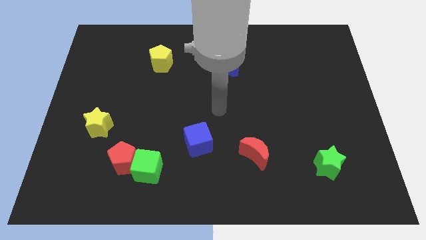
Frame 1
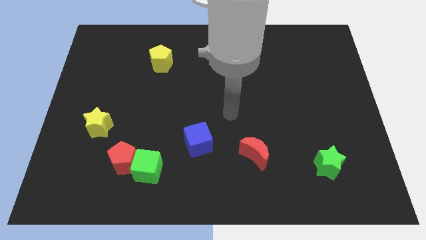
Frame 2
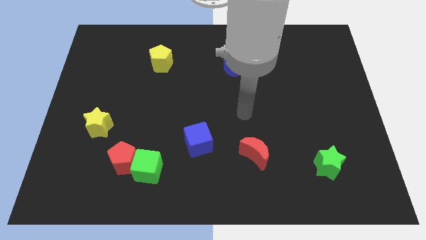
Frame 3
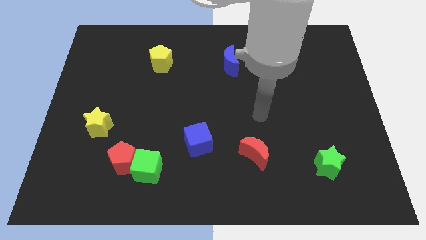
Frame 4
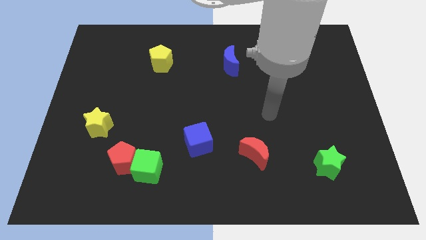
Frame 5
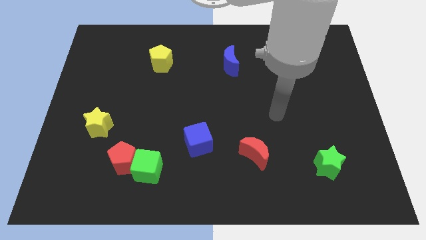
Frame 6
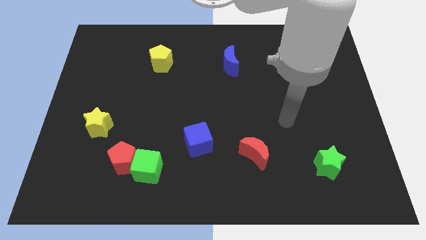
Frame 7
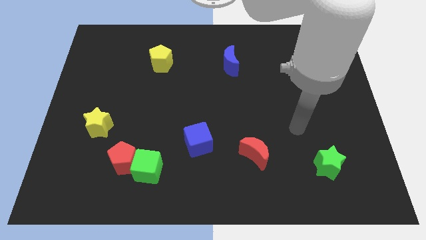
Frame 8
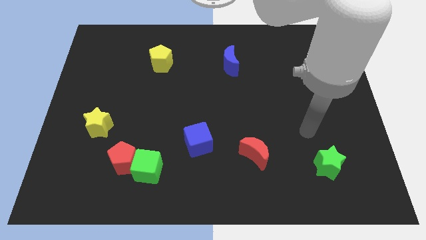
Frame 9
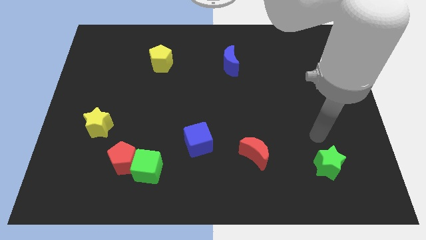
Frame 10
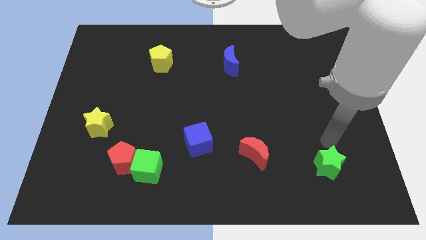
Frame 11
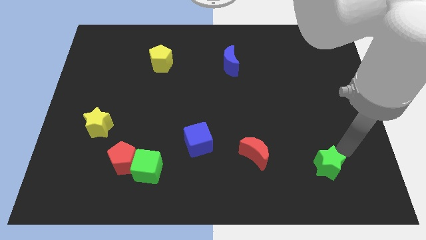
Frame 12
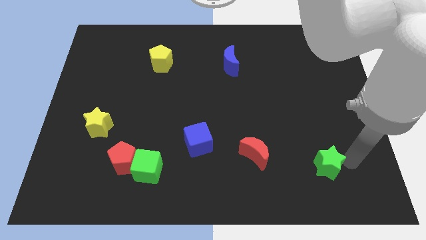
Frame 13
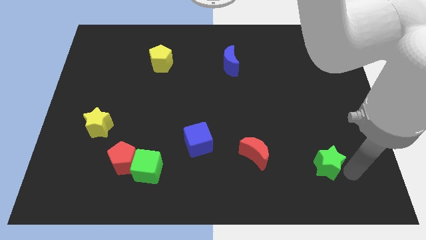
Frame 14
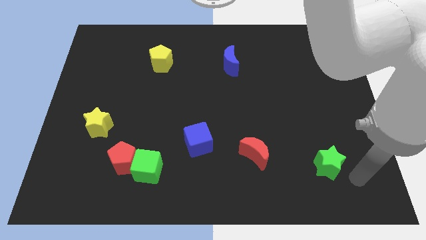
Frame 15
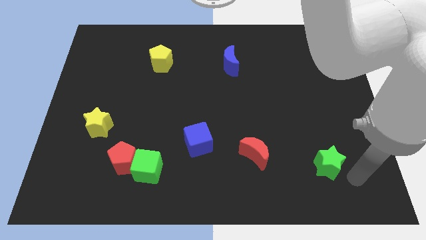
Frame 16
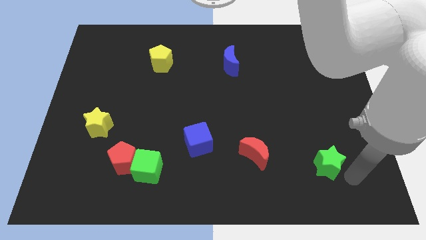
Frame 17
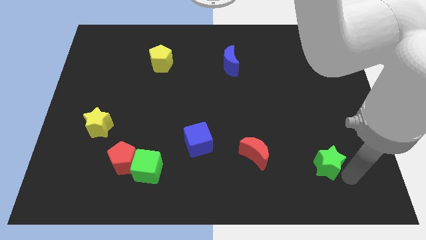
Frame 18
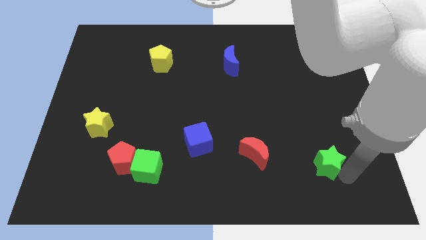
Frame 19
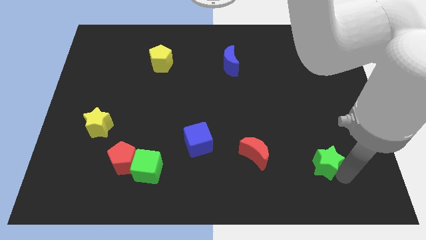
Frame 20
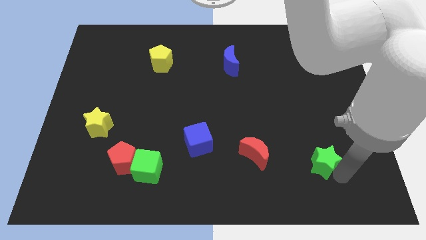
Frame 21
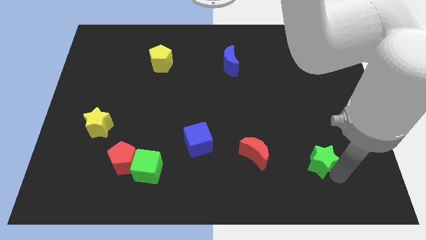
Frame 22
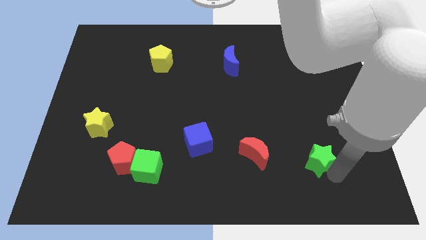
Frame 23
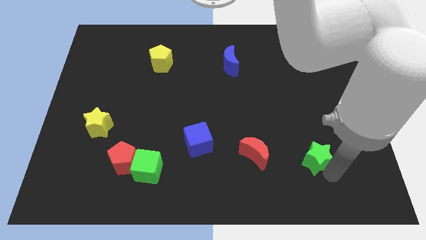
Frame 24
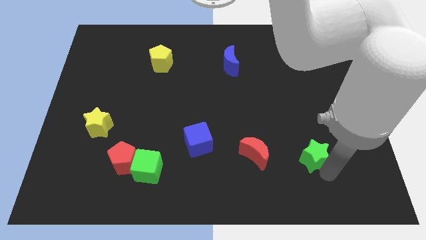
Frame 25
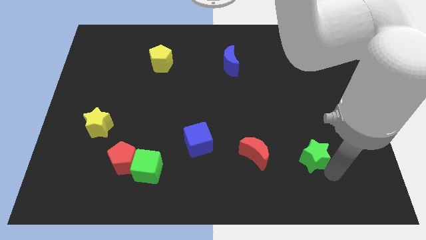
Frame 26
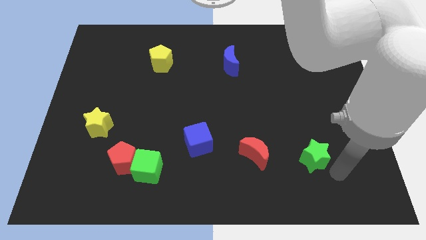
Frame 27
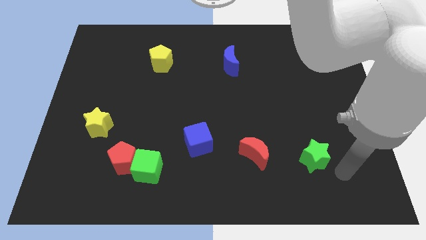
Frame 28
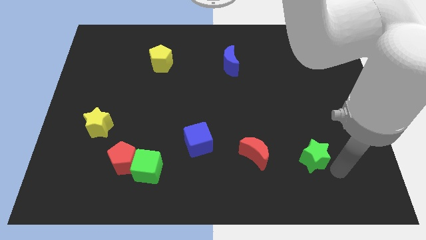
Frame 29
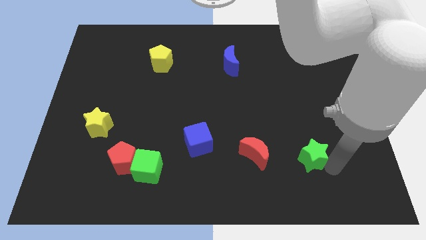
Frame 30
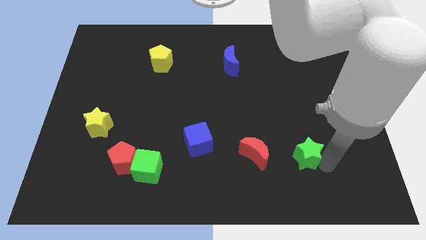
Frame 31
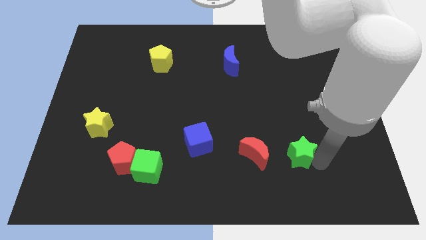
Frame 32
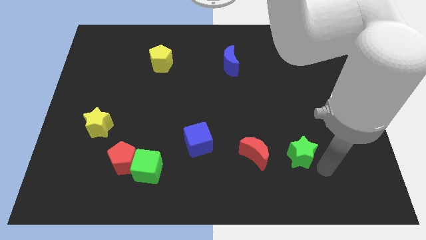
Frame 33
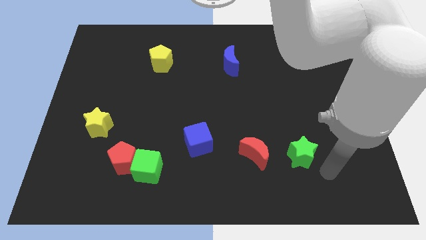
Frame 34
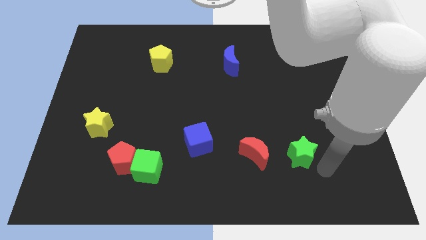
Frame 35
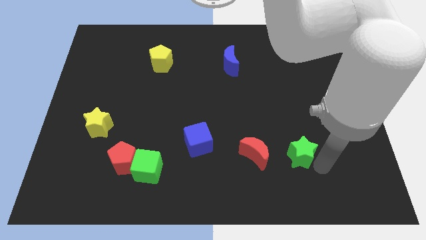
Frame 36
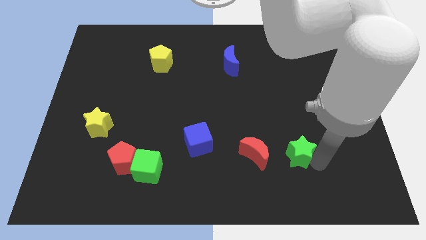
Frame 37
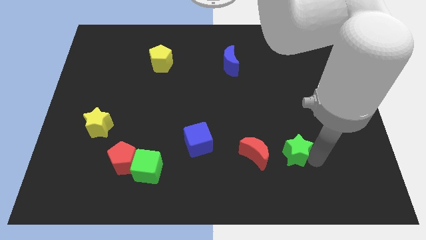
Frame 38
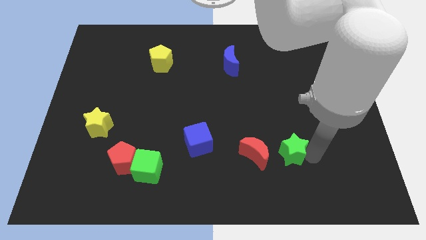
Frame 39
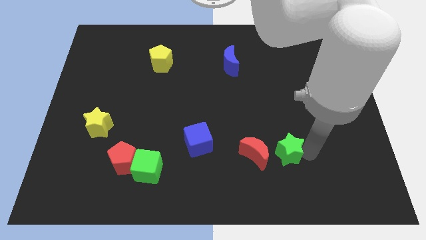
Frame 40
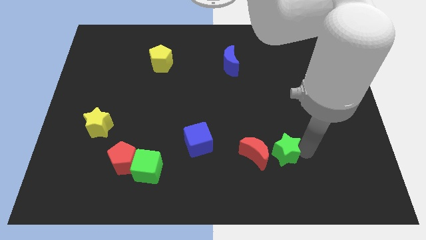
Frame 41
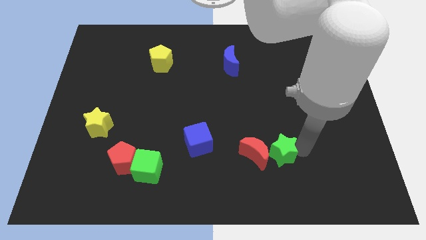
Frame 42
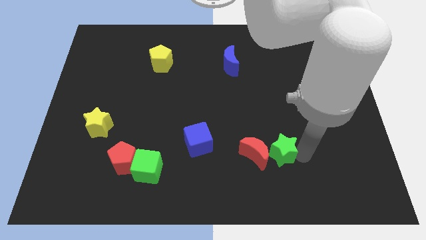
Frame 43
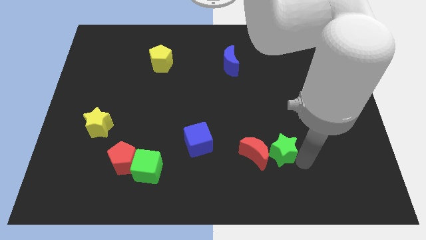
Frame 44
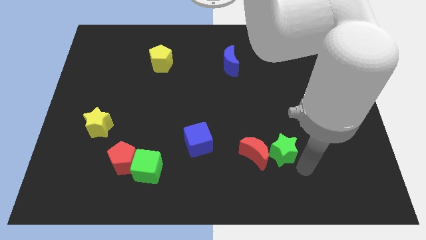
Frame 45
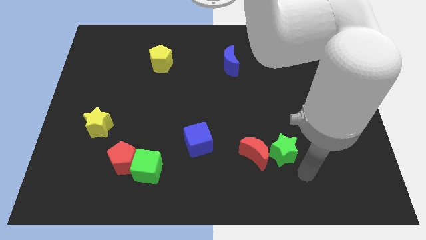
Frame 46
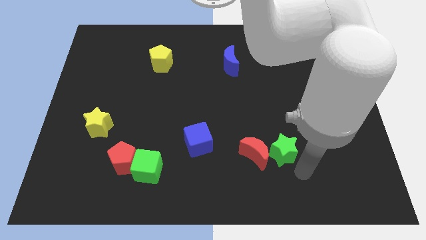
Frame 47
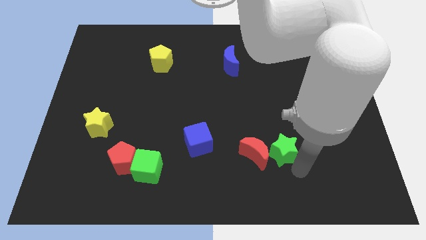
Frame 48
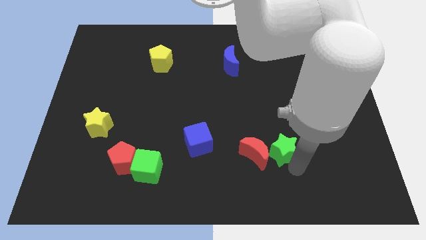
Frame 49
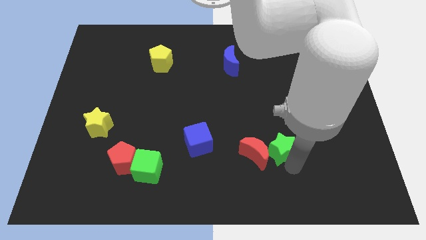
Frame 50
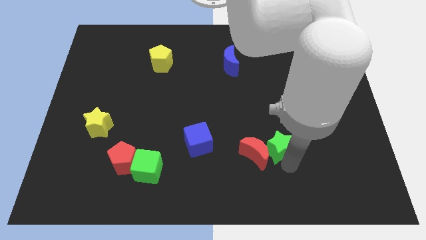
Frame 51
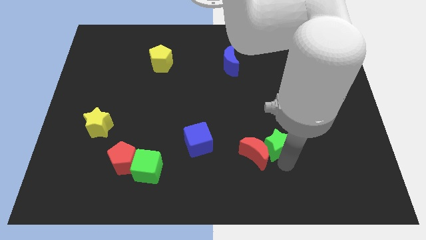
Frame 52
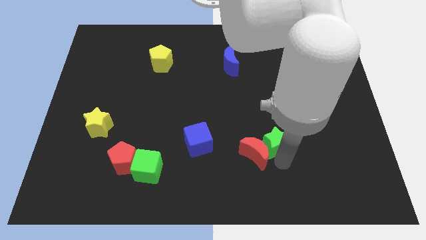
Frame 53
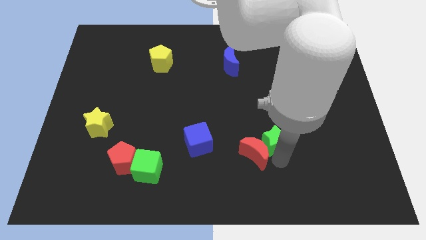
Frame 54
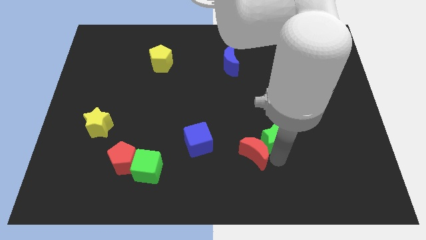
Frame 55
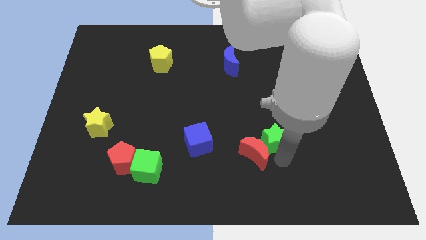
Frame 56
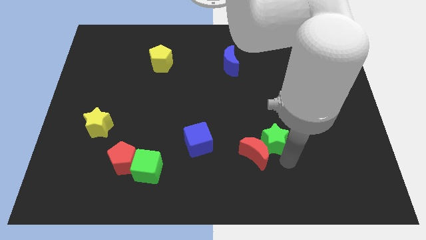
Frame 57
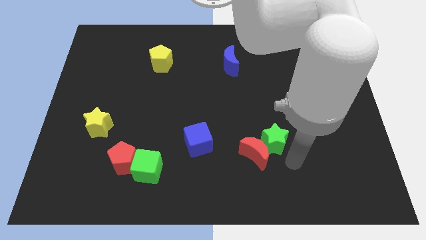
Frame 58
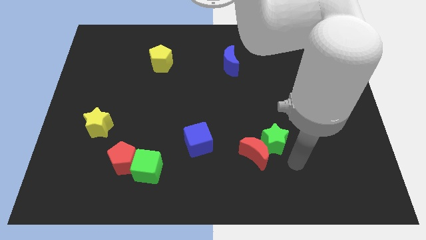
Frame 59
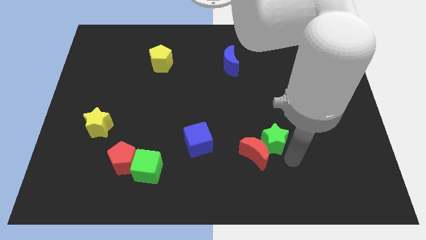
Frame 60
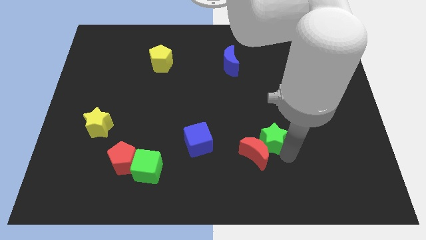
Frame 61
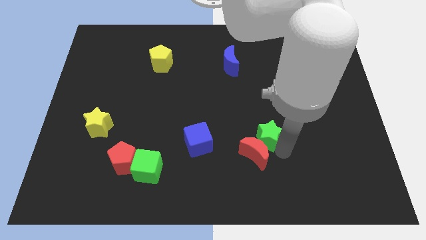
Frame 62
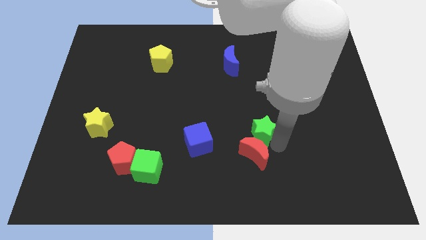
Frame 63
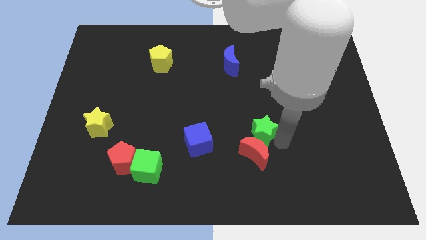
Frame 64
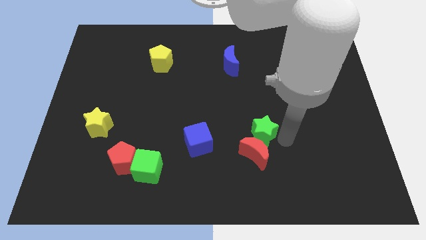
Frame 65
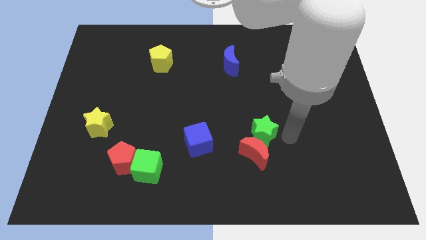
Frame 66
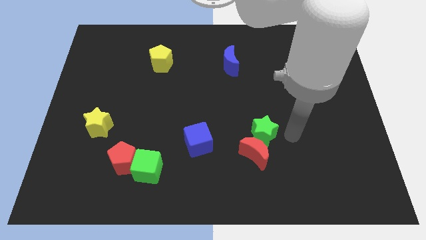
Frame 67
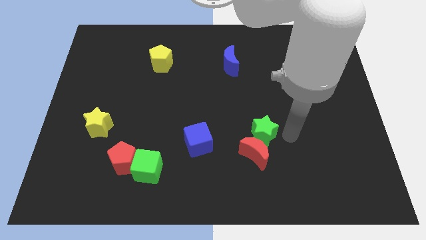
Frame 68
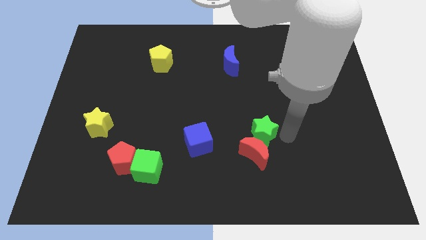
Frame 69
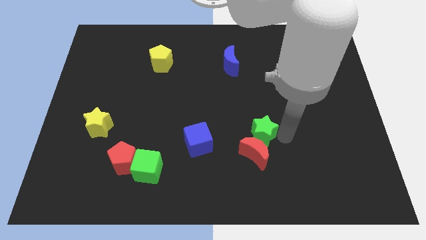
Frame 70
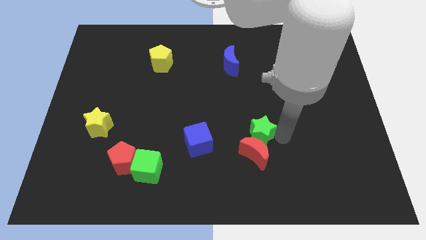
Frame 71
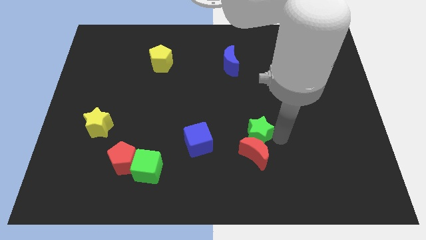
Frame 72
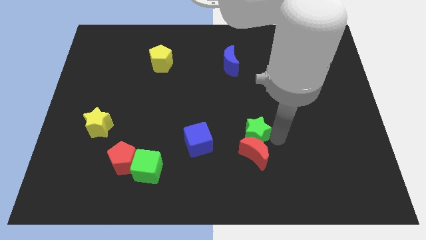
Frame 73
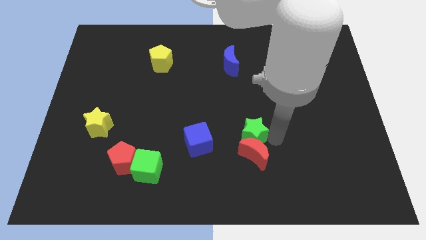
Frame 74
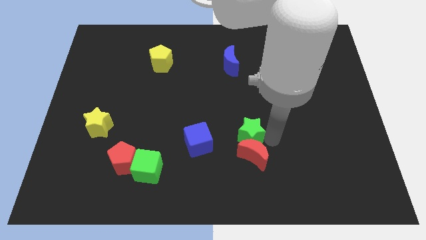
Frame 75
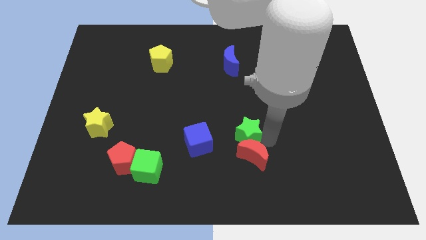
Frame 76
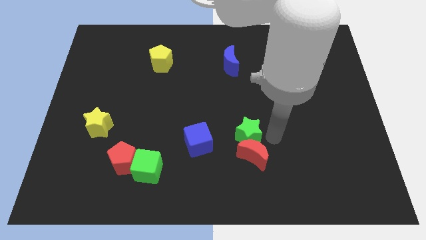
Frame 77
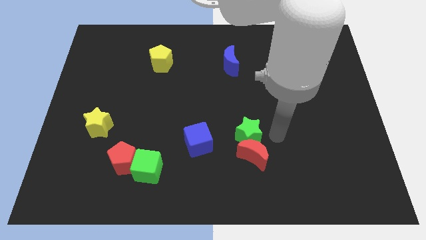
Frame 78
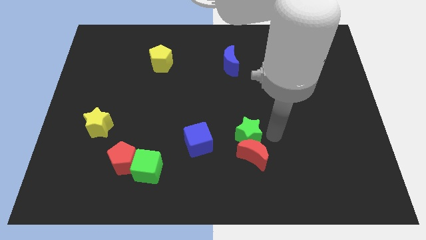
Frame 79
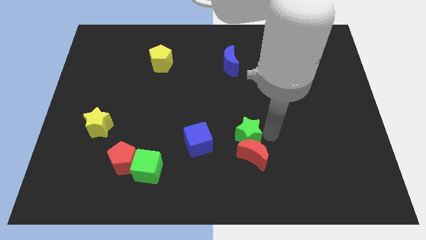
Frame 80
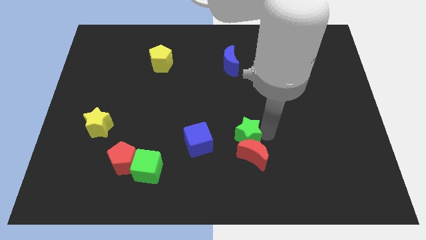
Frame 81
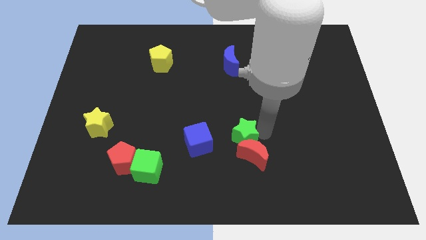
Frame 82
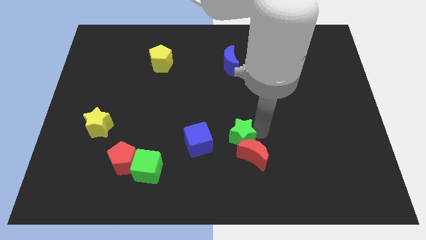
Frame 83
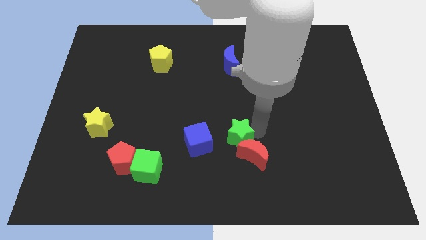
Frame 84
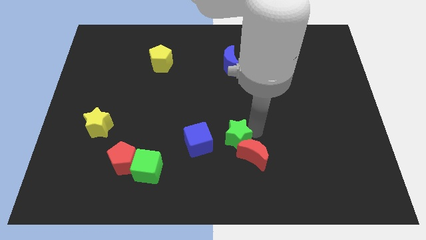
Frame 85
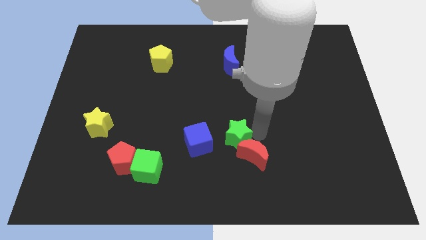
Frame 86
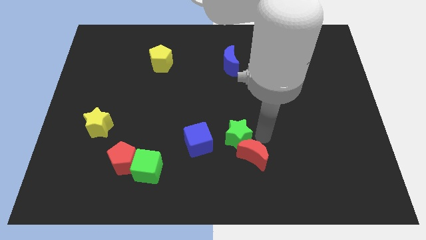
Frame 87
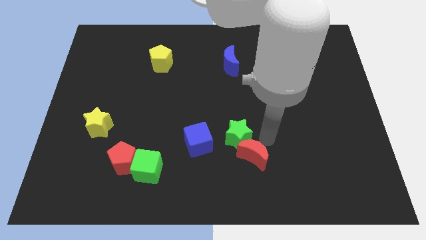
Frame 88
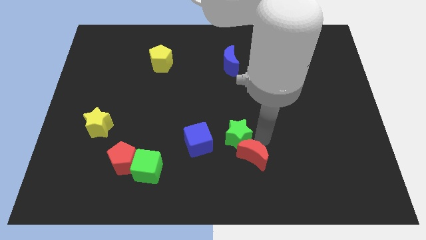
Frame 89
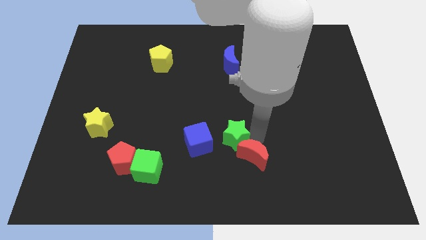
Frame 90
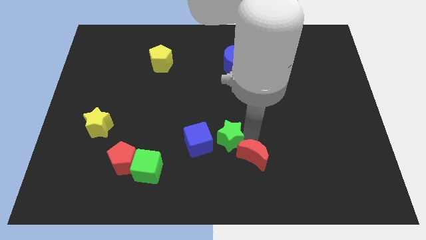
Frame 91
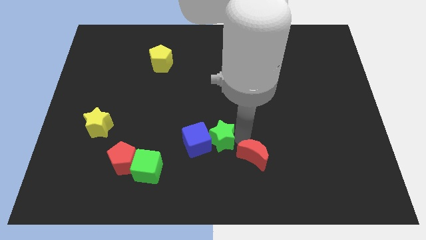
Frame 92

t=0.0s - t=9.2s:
move the green star next to the blue cube
